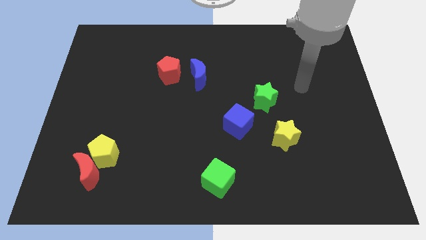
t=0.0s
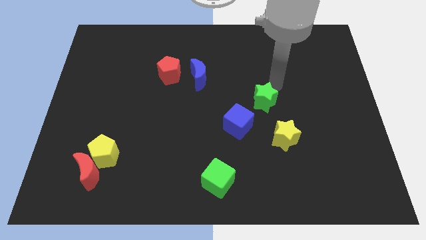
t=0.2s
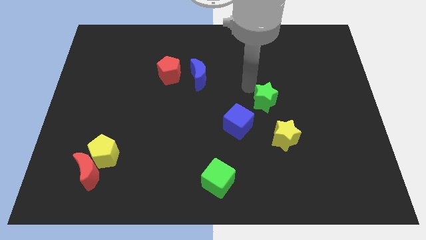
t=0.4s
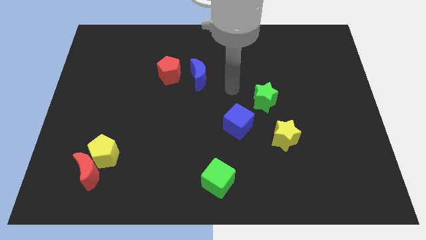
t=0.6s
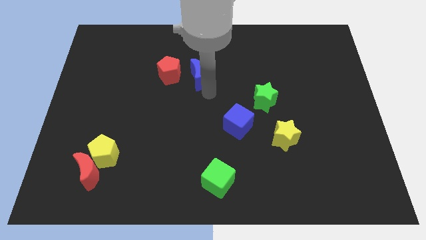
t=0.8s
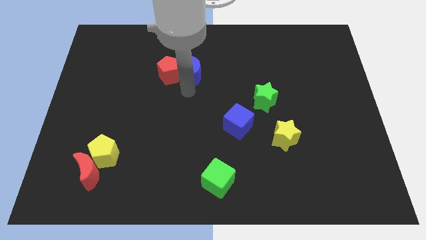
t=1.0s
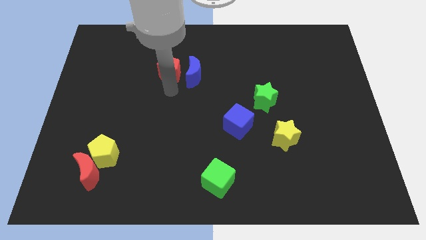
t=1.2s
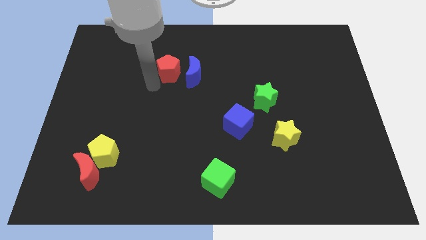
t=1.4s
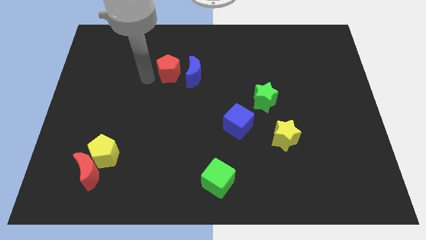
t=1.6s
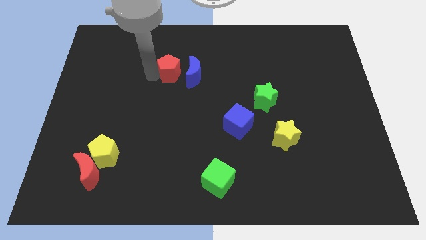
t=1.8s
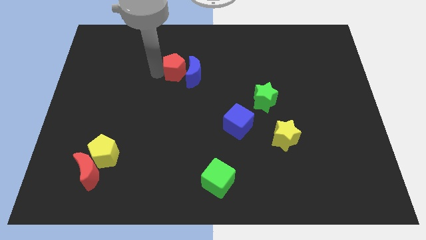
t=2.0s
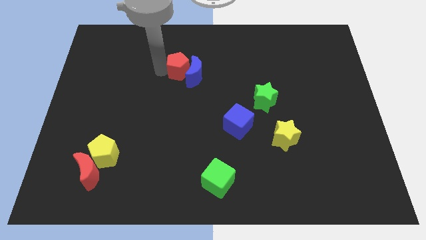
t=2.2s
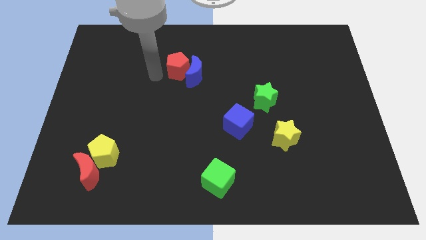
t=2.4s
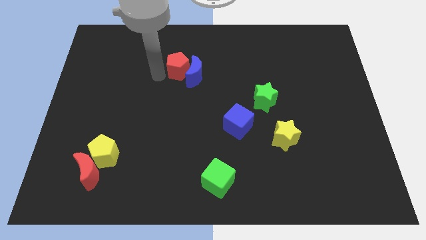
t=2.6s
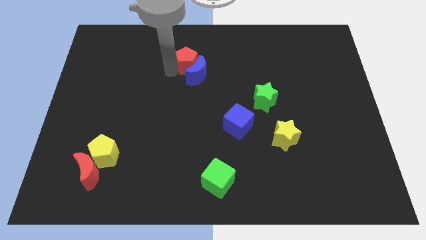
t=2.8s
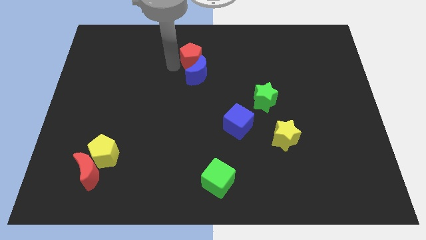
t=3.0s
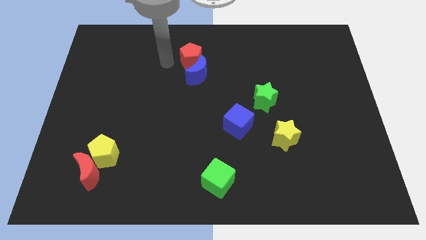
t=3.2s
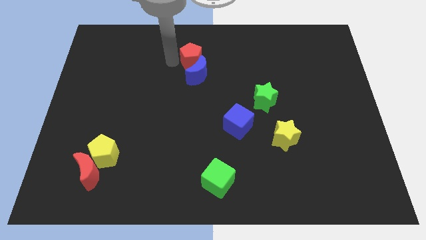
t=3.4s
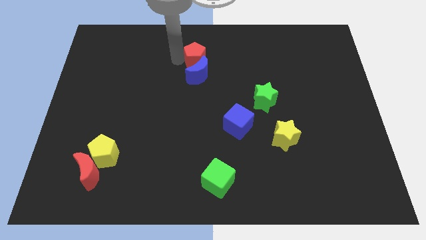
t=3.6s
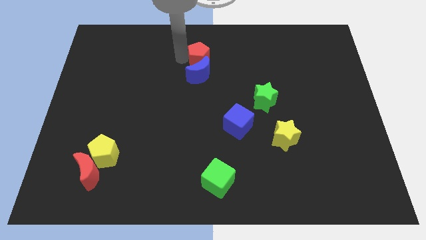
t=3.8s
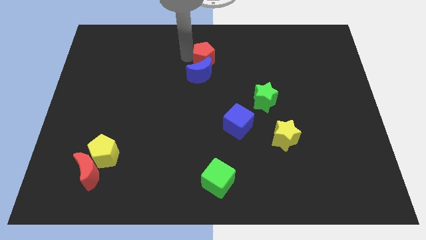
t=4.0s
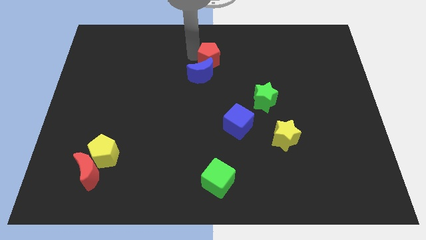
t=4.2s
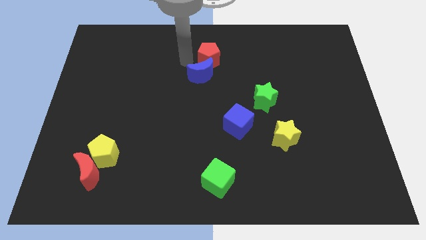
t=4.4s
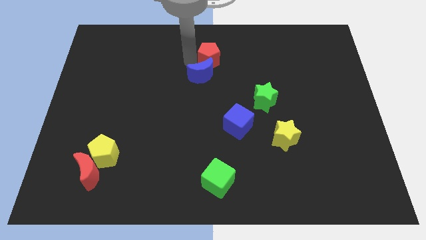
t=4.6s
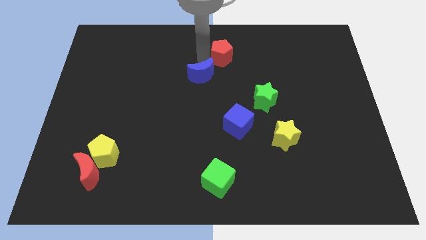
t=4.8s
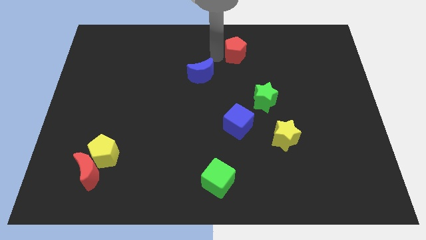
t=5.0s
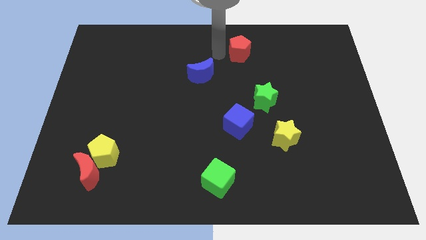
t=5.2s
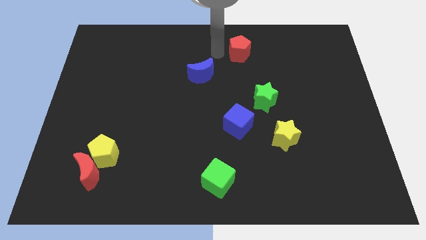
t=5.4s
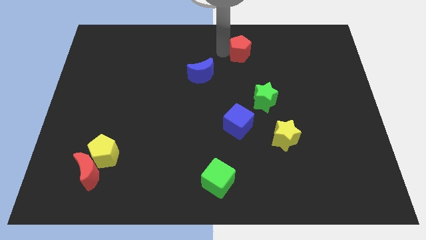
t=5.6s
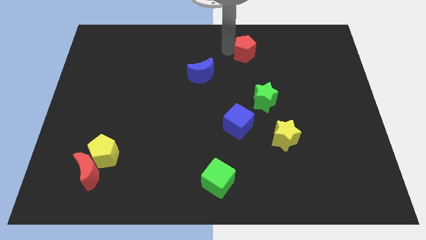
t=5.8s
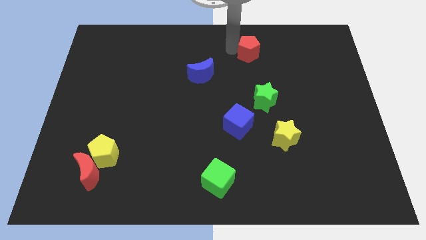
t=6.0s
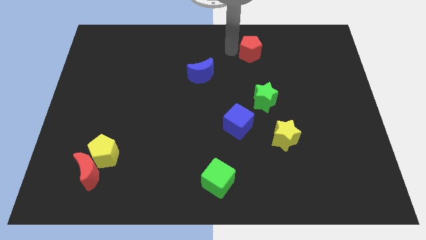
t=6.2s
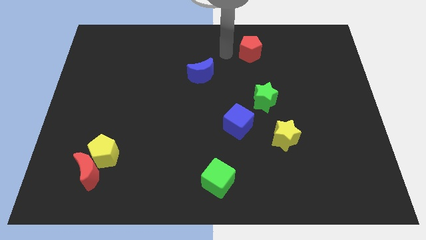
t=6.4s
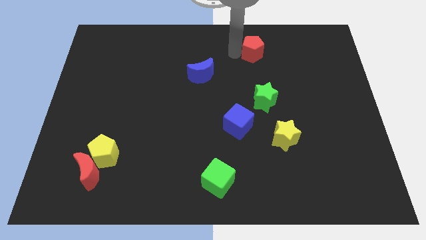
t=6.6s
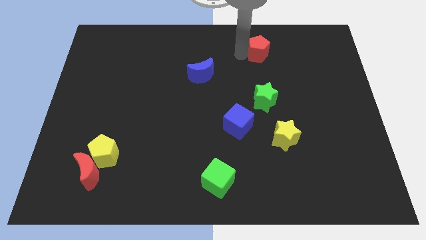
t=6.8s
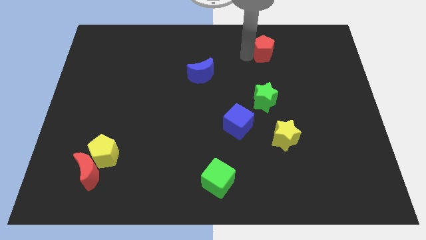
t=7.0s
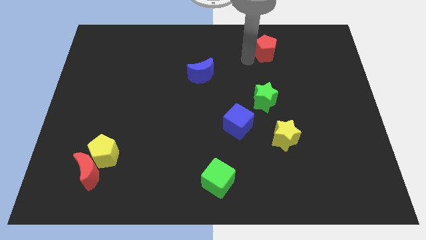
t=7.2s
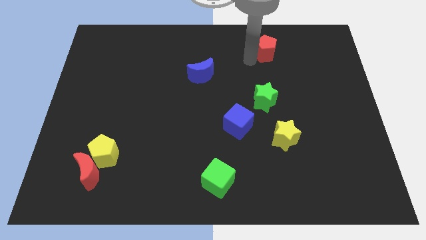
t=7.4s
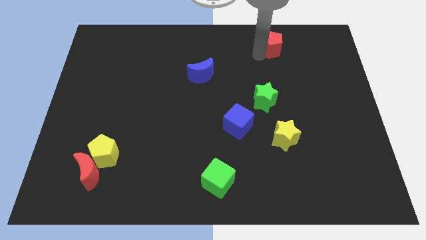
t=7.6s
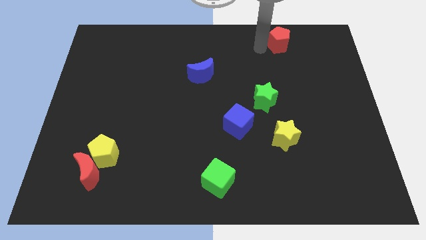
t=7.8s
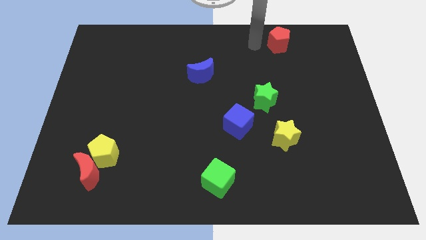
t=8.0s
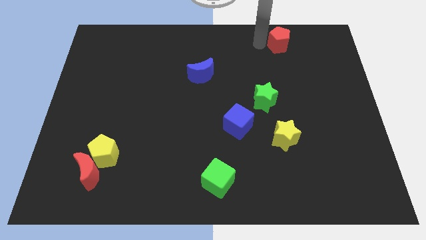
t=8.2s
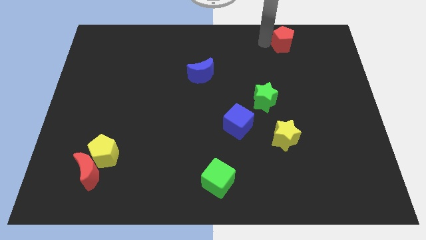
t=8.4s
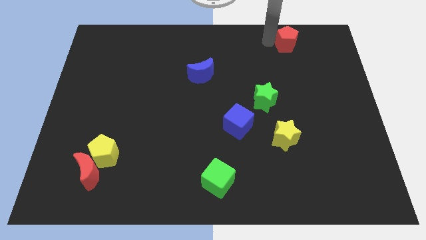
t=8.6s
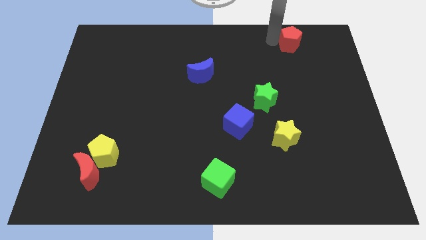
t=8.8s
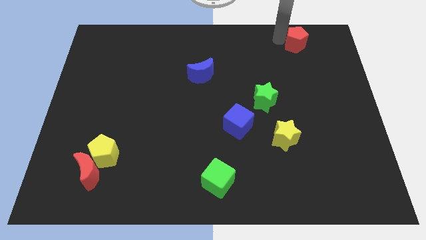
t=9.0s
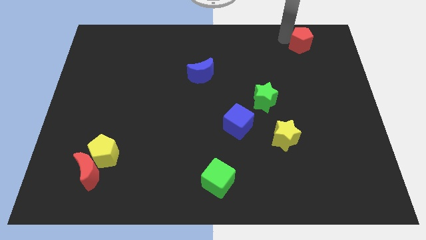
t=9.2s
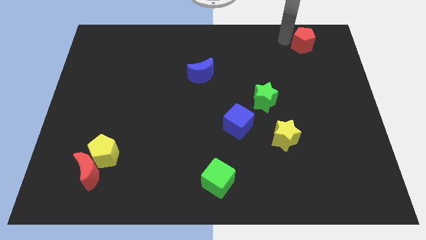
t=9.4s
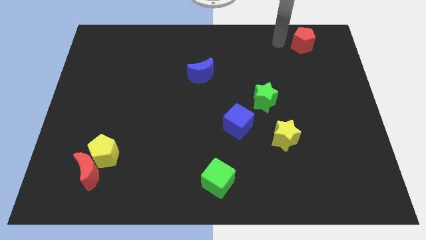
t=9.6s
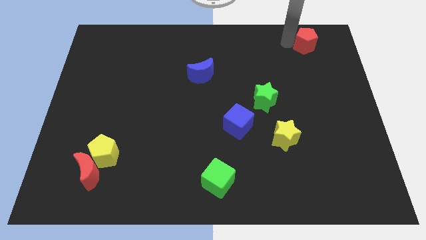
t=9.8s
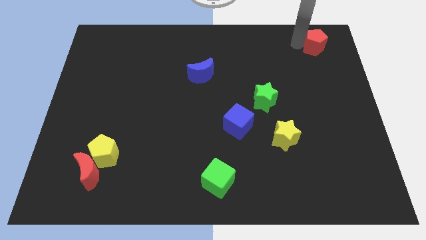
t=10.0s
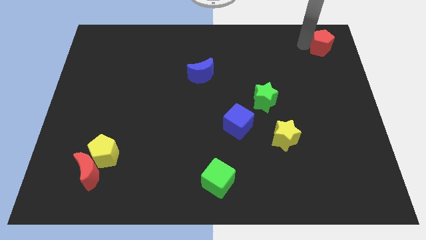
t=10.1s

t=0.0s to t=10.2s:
put the red pentagon to the top right corner

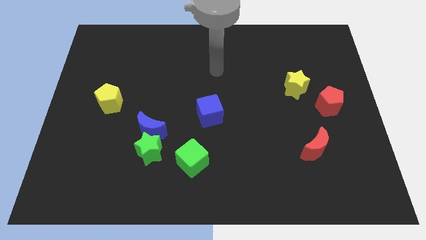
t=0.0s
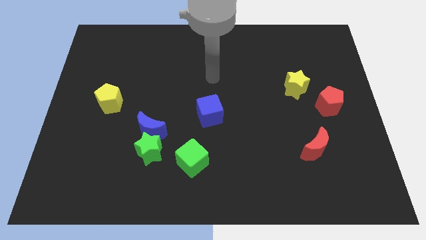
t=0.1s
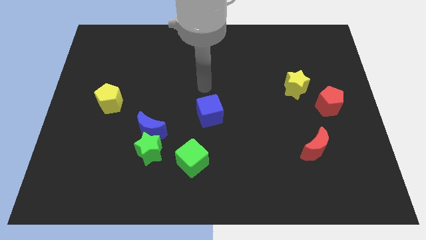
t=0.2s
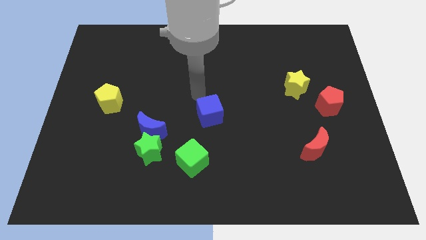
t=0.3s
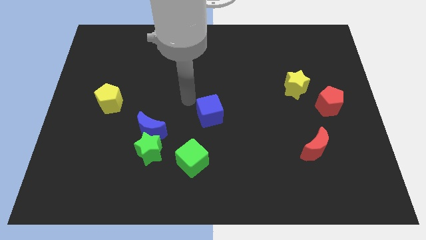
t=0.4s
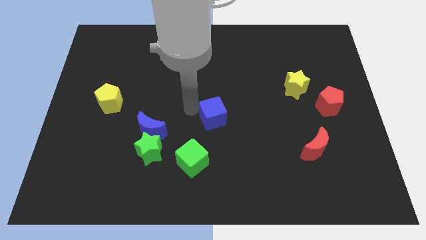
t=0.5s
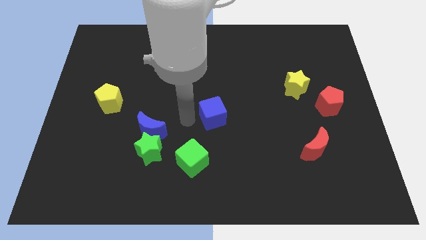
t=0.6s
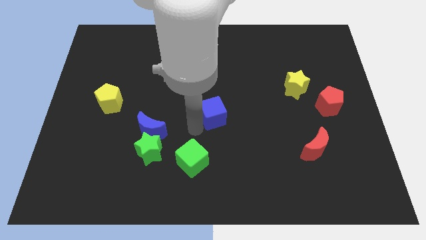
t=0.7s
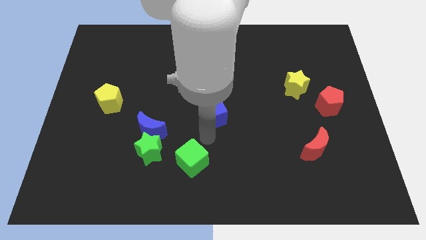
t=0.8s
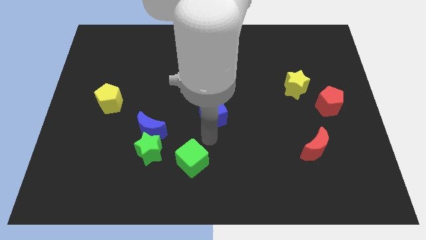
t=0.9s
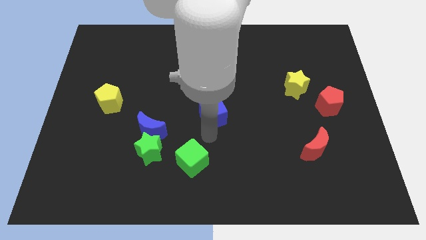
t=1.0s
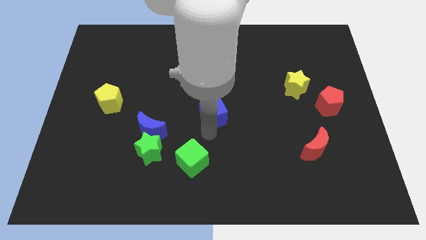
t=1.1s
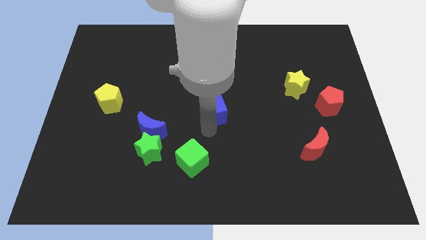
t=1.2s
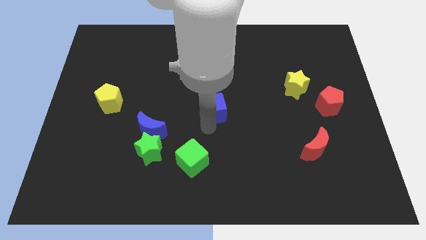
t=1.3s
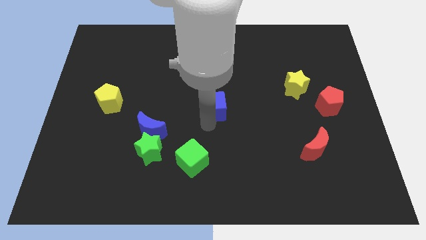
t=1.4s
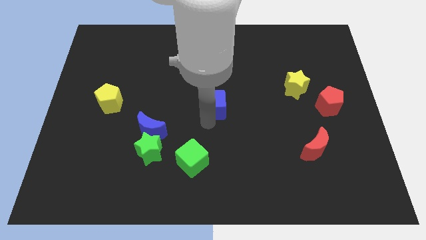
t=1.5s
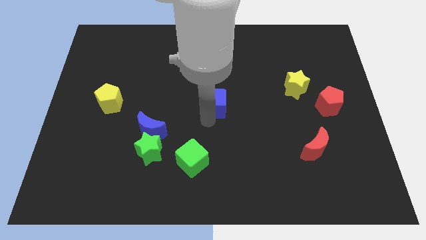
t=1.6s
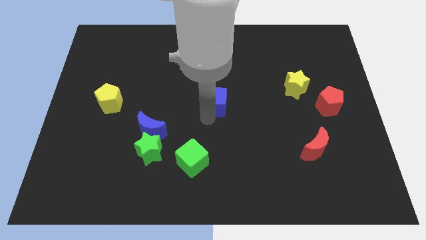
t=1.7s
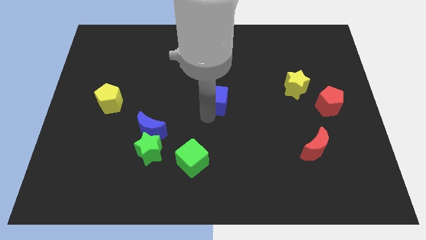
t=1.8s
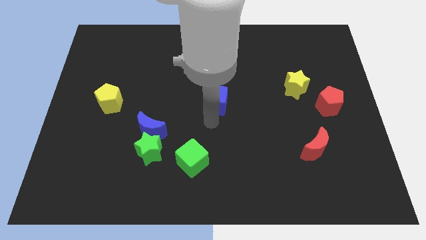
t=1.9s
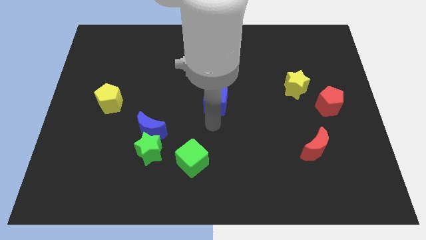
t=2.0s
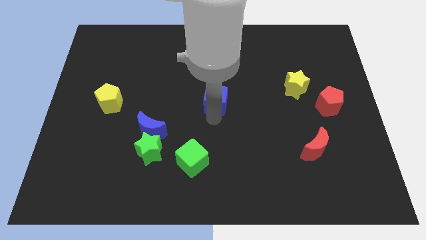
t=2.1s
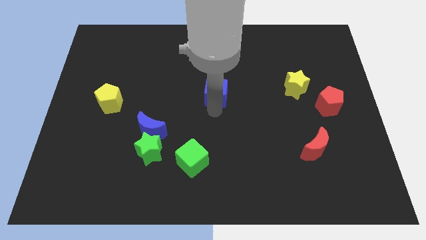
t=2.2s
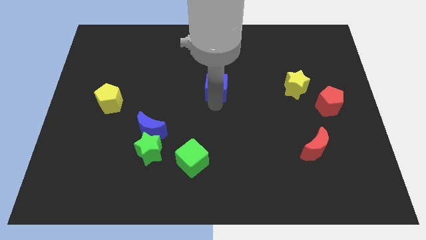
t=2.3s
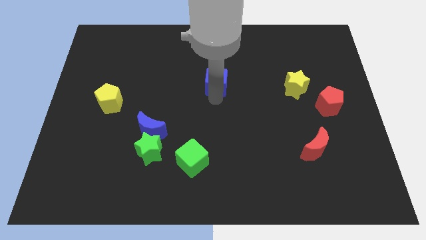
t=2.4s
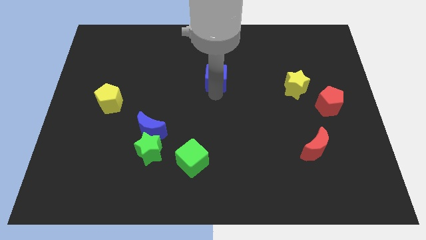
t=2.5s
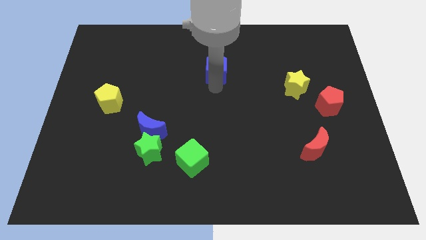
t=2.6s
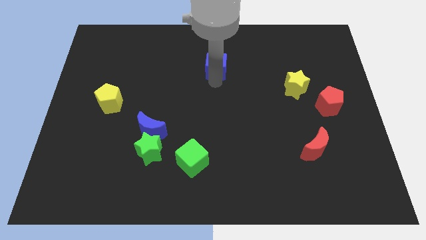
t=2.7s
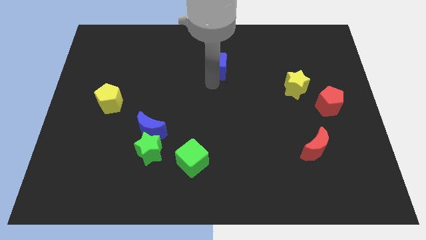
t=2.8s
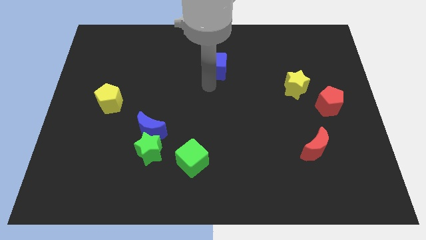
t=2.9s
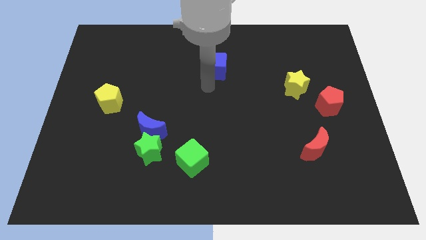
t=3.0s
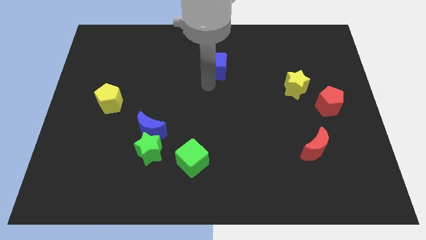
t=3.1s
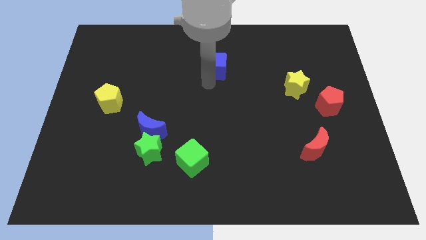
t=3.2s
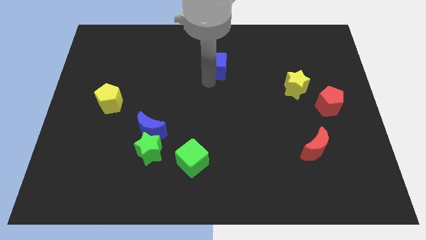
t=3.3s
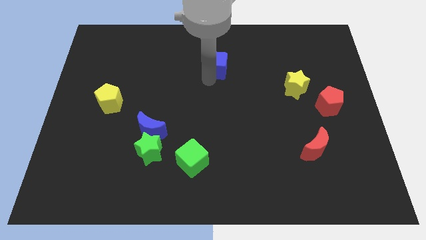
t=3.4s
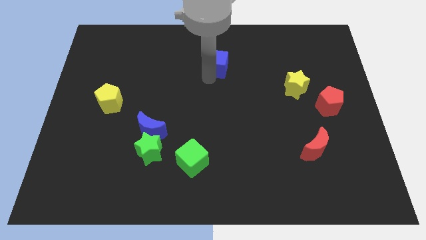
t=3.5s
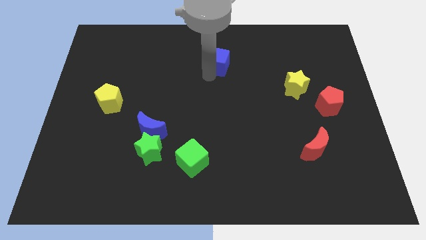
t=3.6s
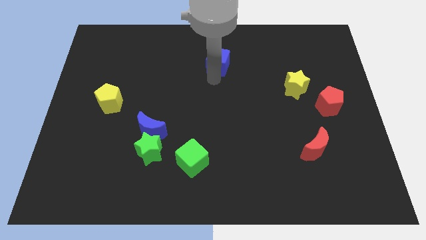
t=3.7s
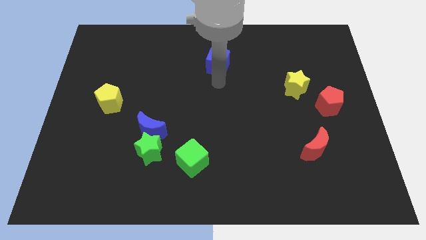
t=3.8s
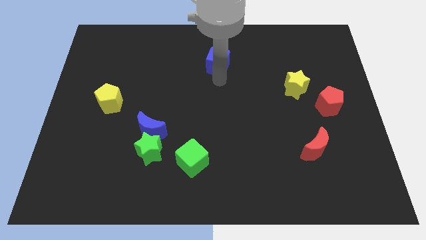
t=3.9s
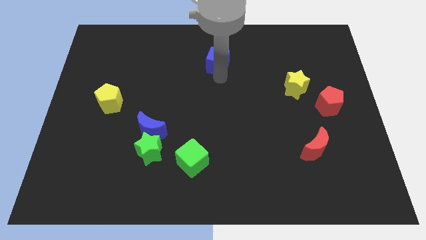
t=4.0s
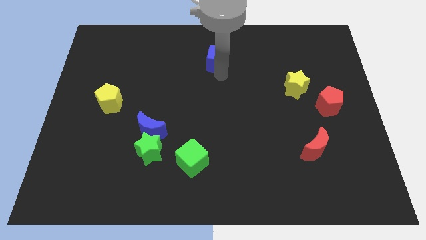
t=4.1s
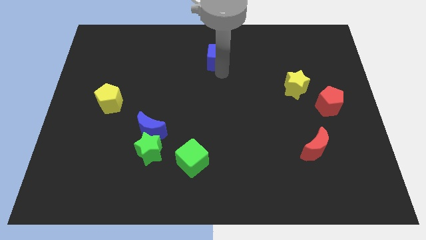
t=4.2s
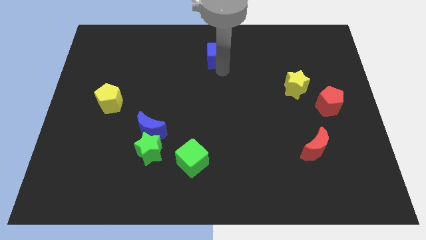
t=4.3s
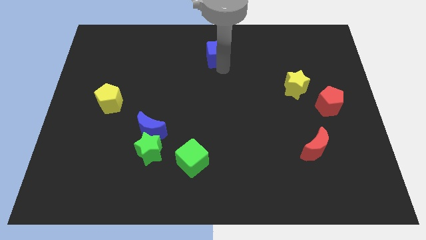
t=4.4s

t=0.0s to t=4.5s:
move the blue cube to the top
